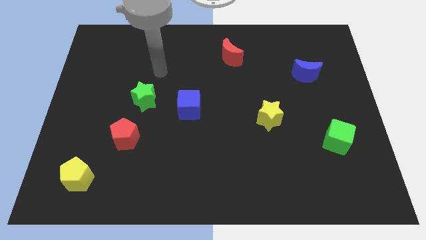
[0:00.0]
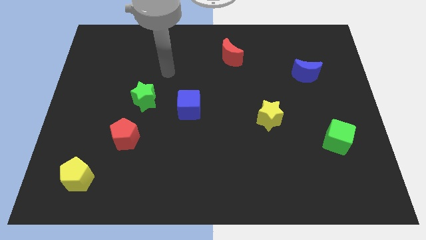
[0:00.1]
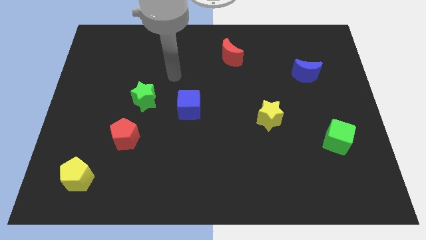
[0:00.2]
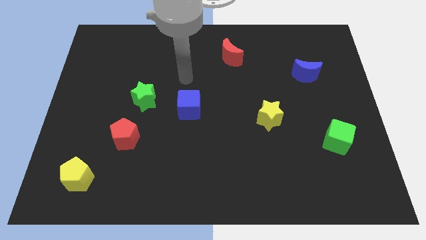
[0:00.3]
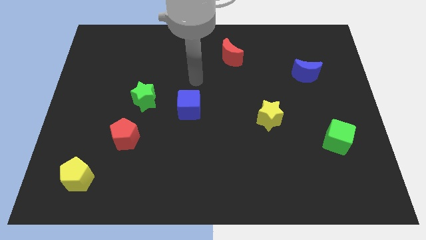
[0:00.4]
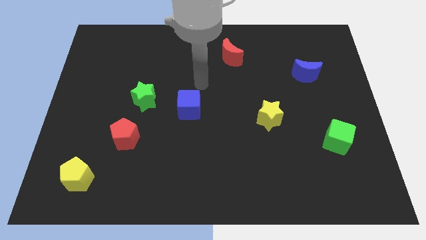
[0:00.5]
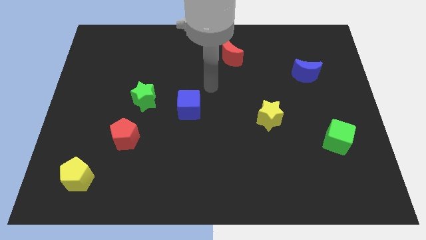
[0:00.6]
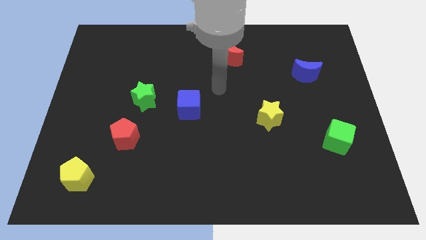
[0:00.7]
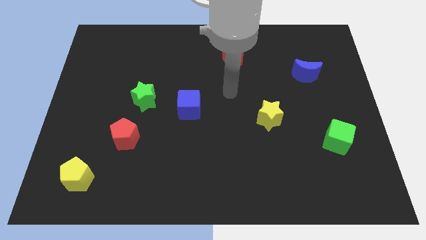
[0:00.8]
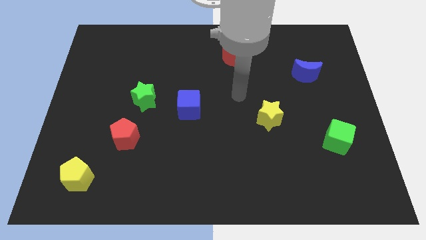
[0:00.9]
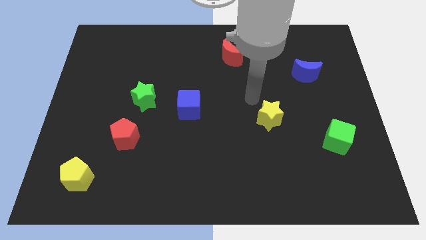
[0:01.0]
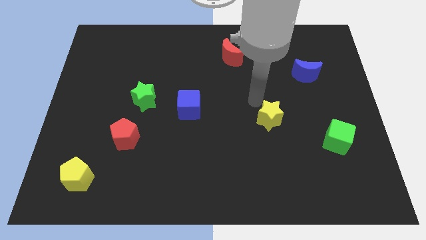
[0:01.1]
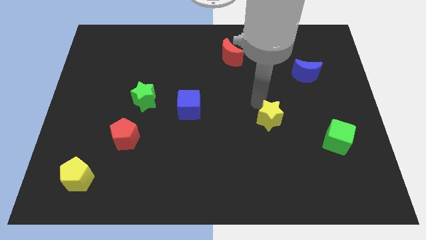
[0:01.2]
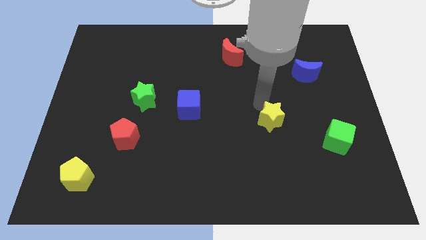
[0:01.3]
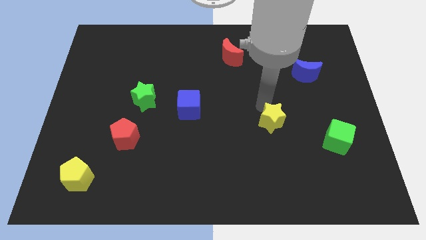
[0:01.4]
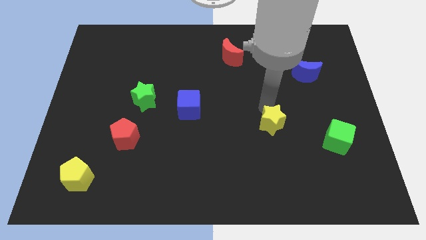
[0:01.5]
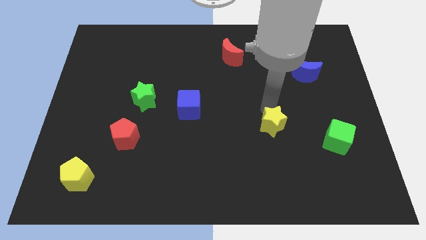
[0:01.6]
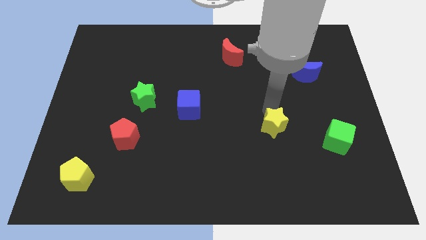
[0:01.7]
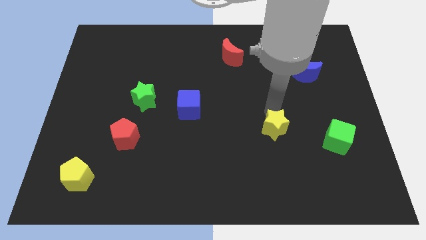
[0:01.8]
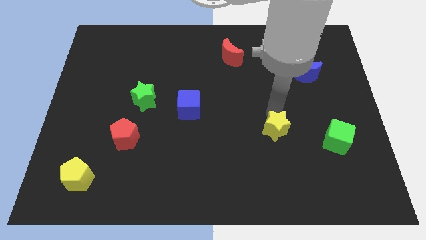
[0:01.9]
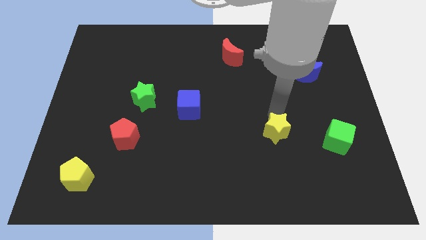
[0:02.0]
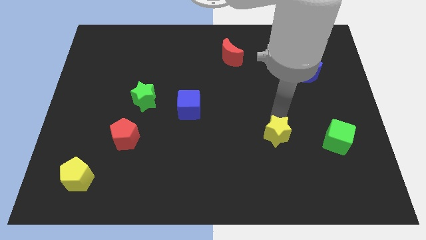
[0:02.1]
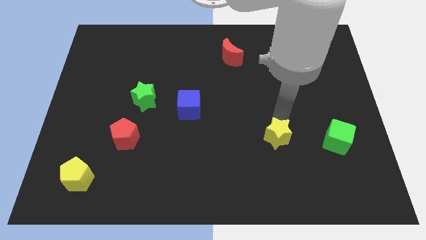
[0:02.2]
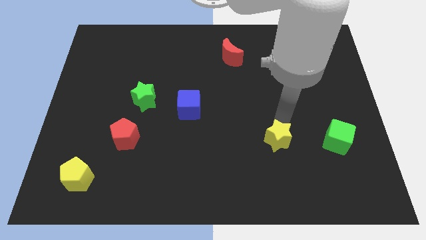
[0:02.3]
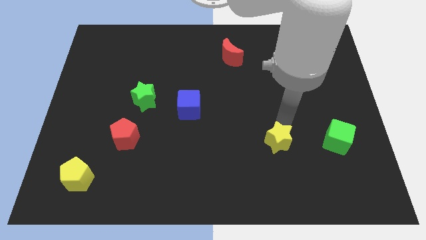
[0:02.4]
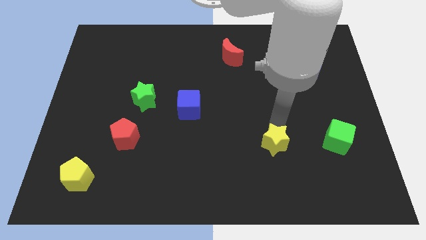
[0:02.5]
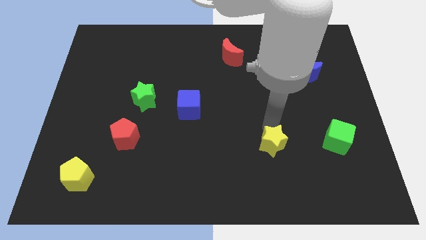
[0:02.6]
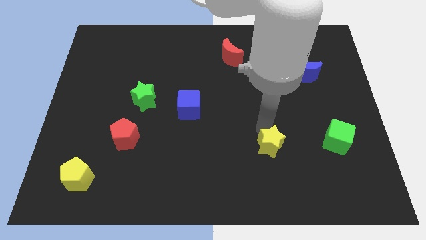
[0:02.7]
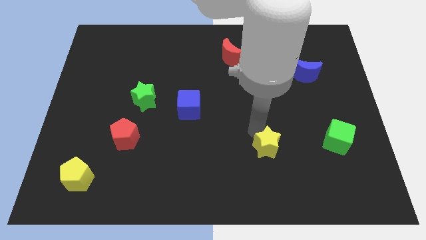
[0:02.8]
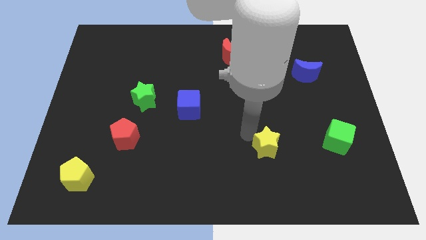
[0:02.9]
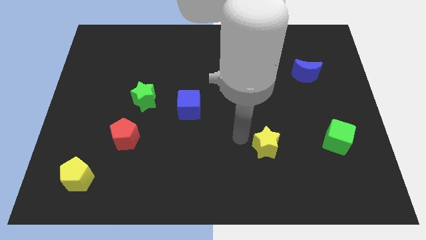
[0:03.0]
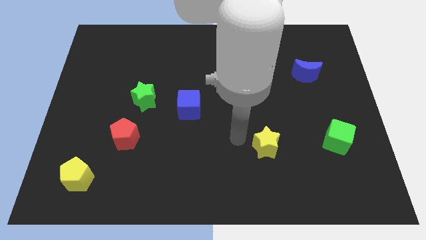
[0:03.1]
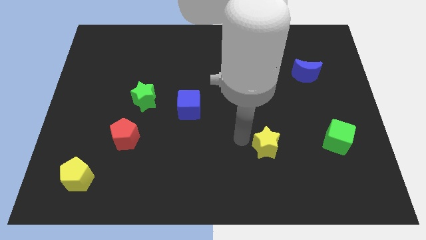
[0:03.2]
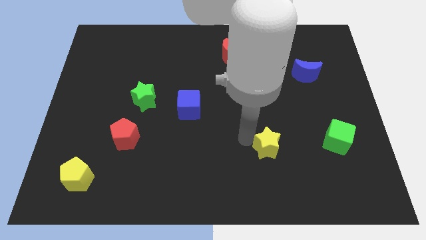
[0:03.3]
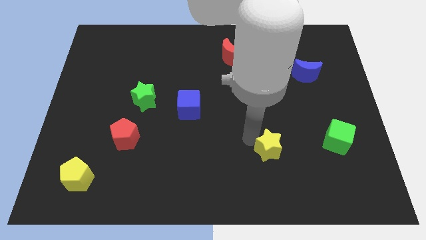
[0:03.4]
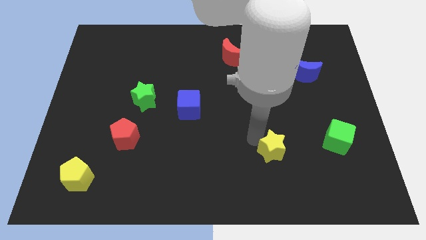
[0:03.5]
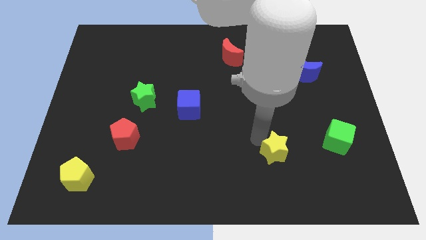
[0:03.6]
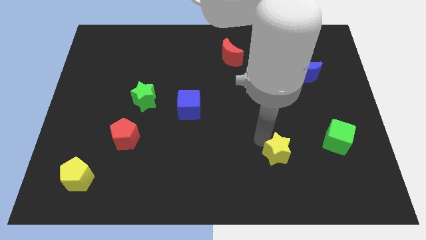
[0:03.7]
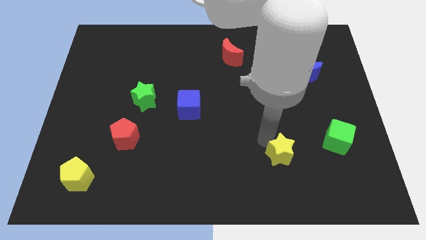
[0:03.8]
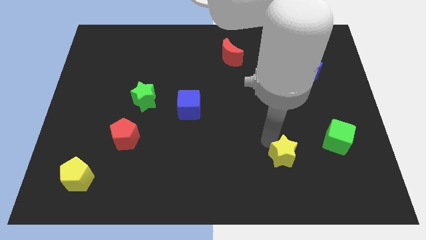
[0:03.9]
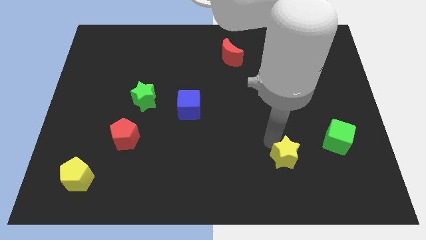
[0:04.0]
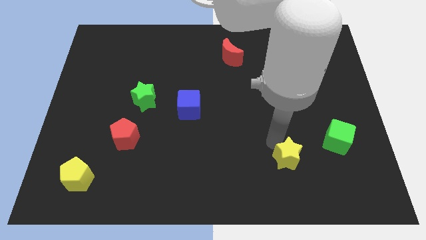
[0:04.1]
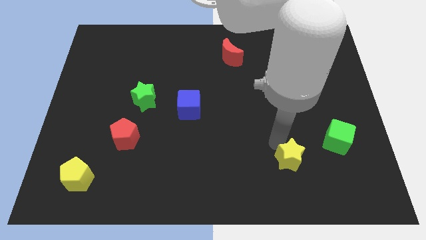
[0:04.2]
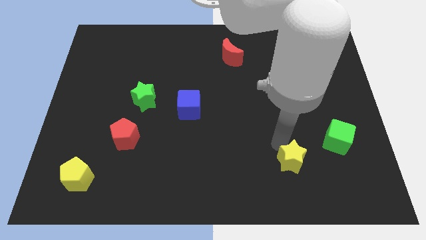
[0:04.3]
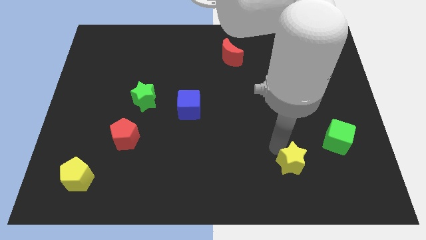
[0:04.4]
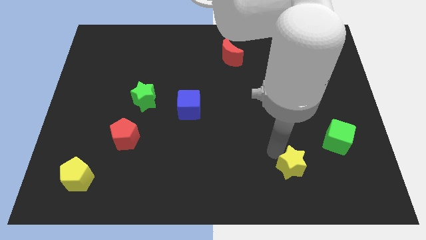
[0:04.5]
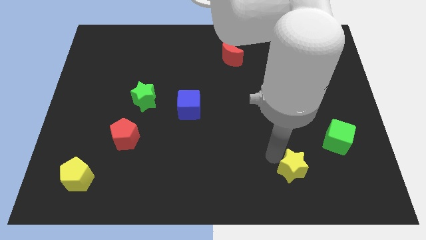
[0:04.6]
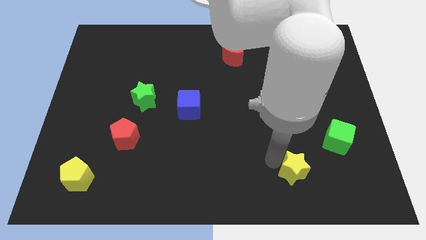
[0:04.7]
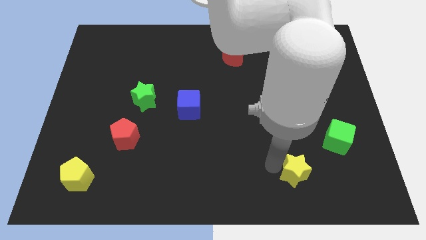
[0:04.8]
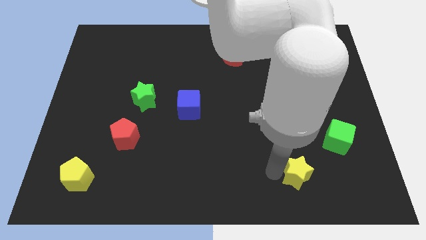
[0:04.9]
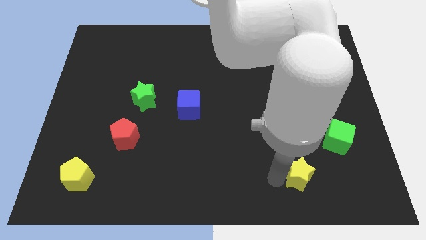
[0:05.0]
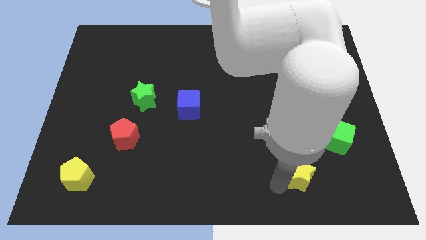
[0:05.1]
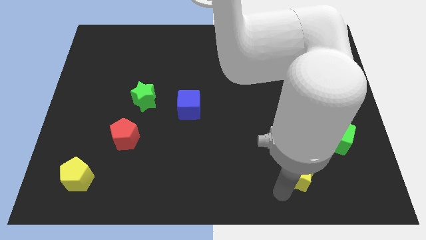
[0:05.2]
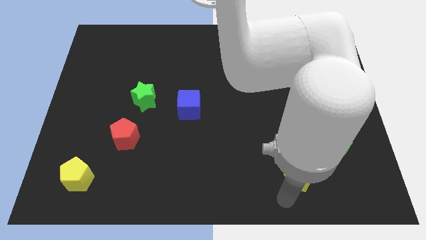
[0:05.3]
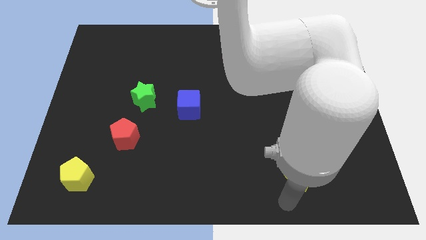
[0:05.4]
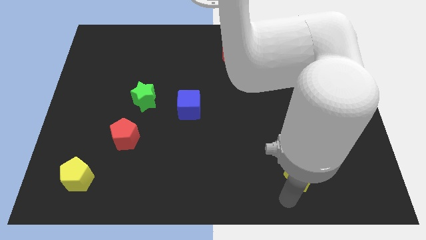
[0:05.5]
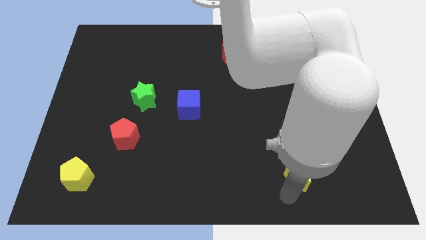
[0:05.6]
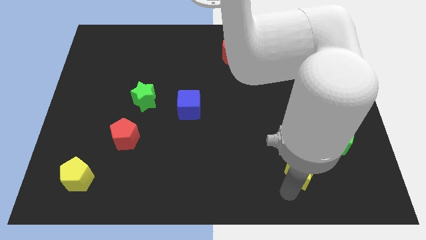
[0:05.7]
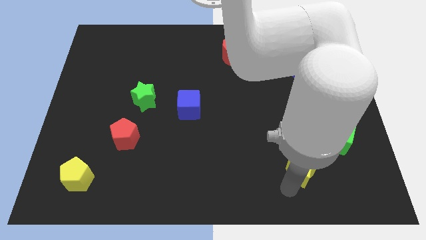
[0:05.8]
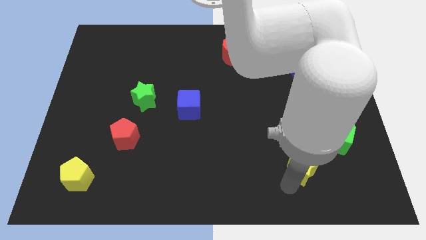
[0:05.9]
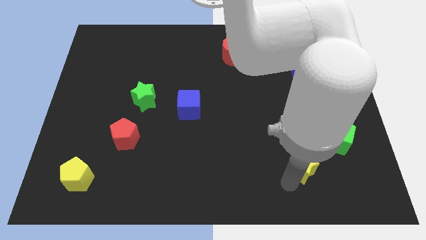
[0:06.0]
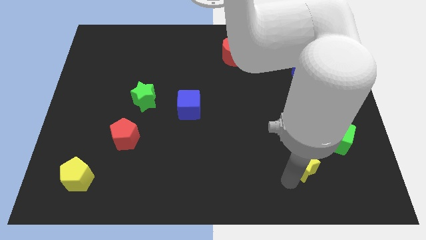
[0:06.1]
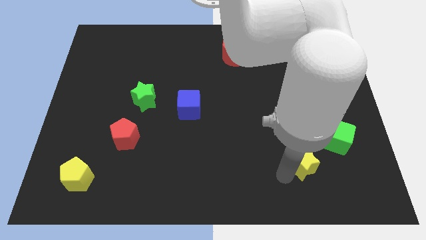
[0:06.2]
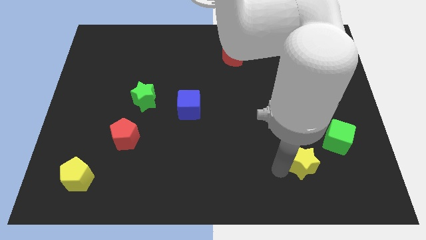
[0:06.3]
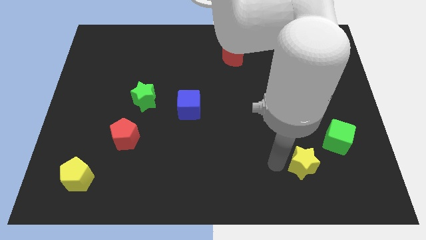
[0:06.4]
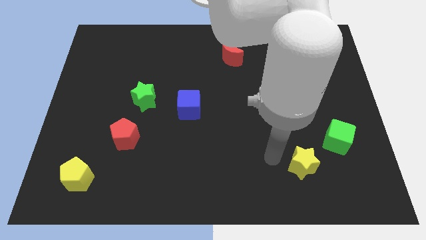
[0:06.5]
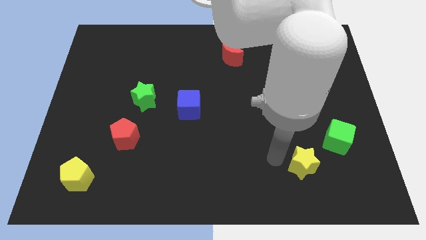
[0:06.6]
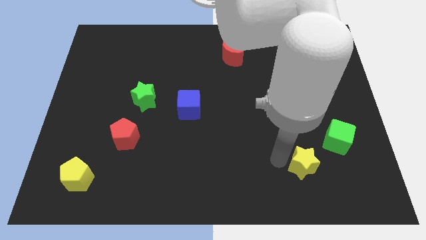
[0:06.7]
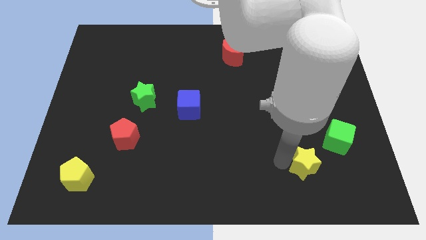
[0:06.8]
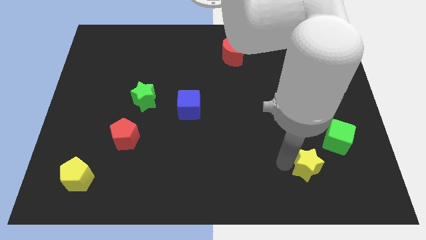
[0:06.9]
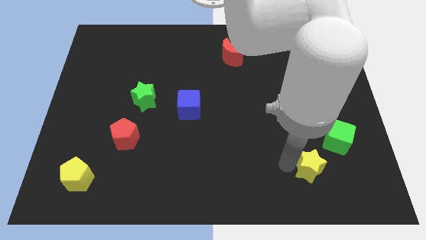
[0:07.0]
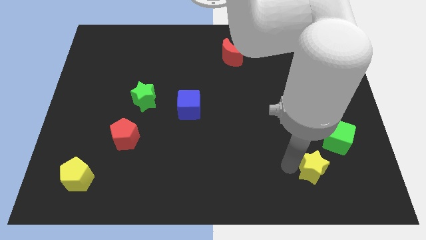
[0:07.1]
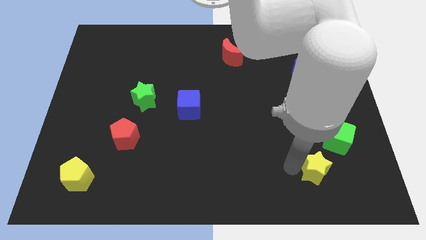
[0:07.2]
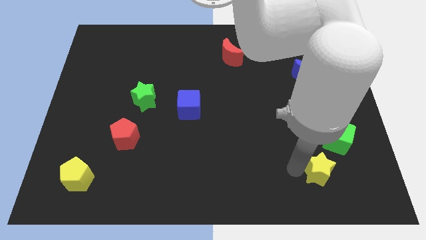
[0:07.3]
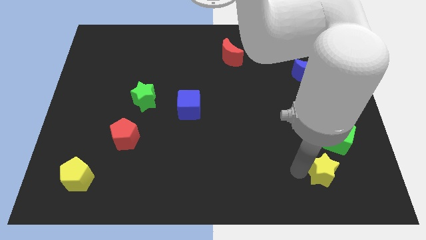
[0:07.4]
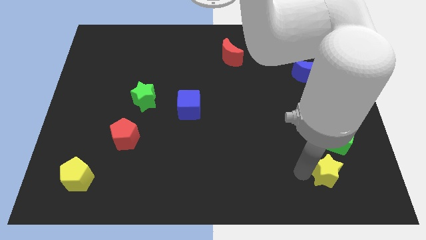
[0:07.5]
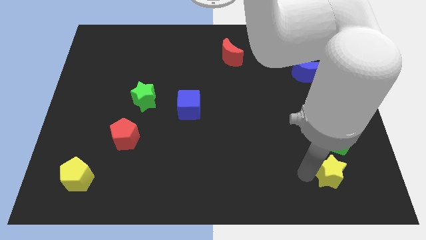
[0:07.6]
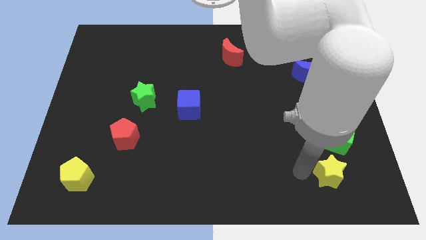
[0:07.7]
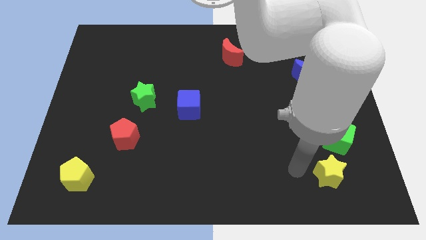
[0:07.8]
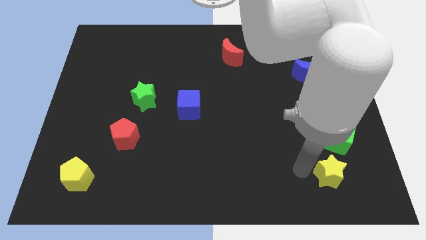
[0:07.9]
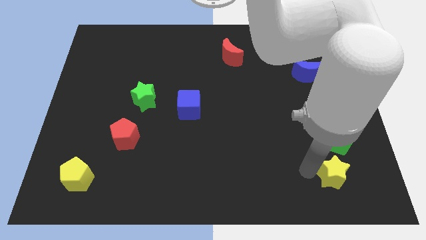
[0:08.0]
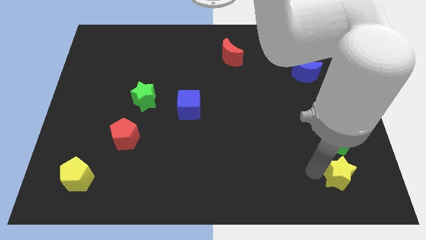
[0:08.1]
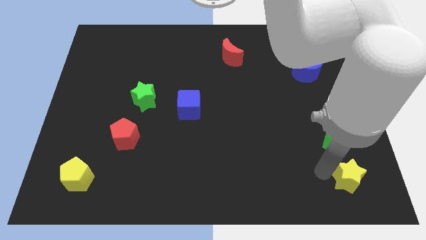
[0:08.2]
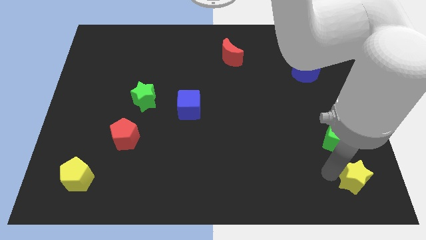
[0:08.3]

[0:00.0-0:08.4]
push the yellow star to the bottom right corner
